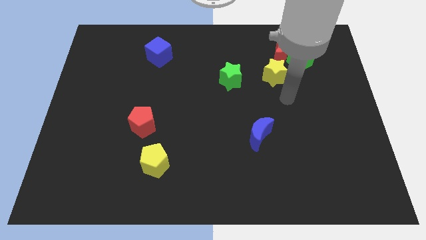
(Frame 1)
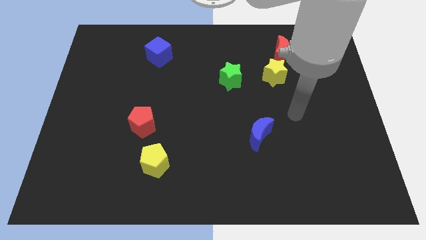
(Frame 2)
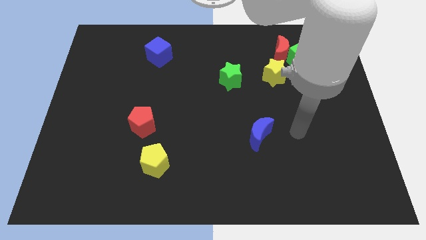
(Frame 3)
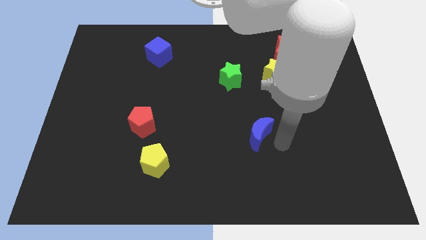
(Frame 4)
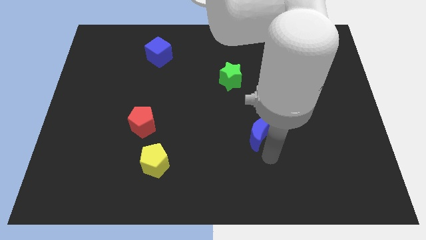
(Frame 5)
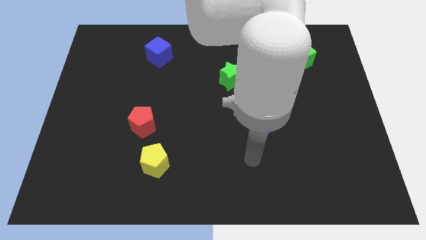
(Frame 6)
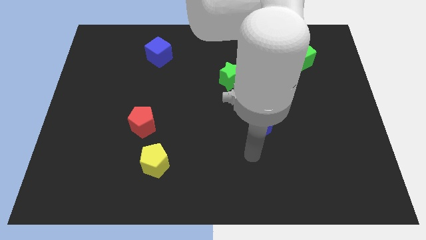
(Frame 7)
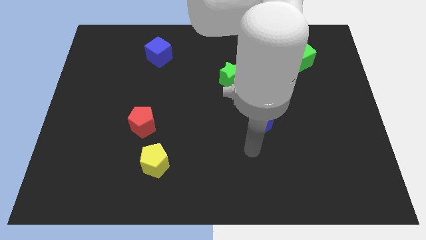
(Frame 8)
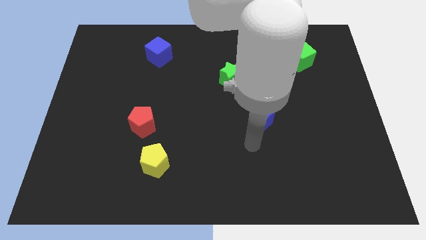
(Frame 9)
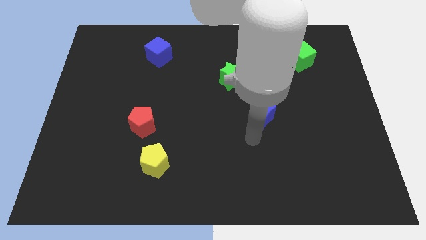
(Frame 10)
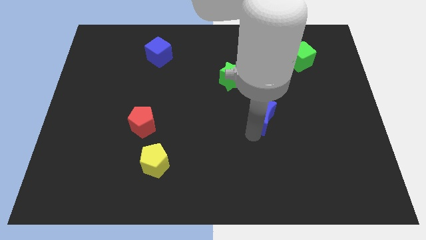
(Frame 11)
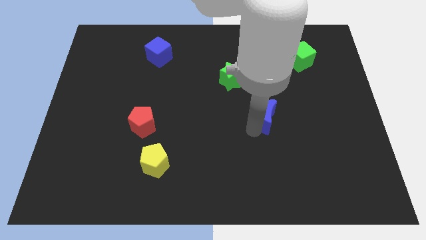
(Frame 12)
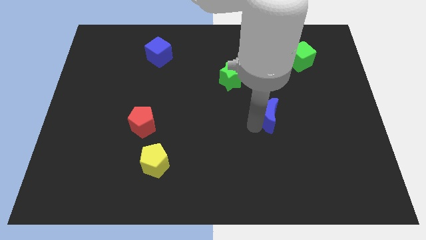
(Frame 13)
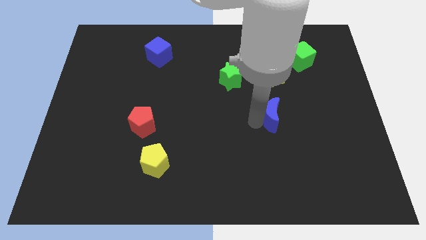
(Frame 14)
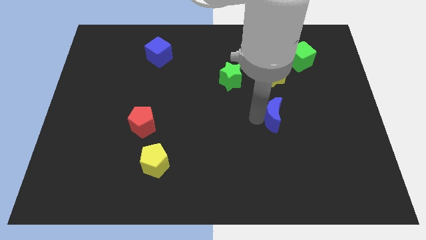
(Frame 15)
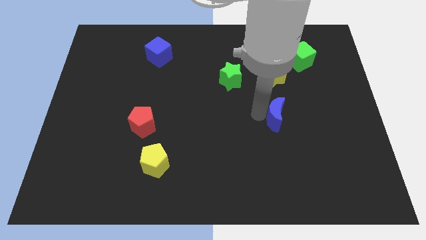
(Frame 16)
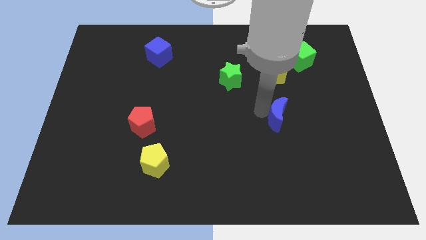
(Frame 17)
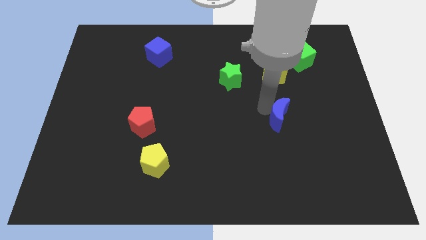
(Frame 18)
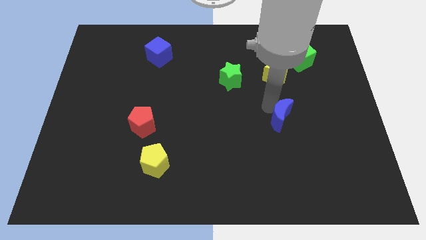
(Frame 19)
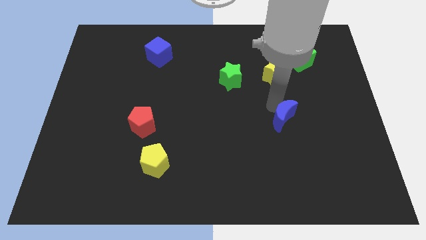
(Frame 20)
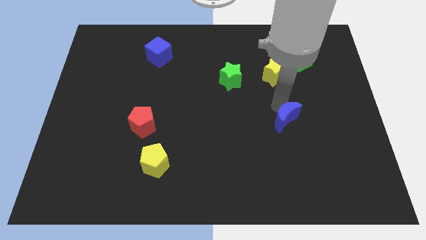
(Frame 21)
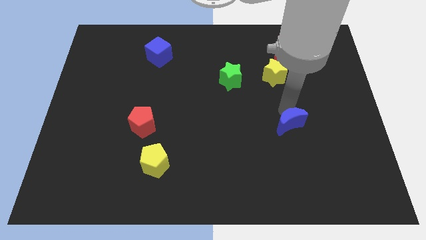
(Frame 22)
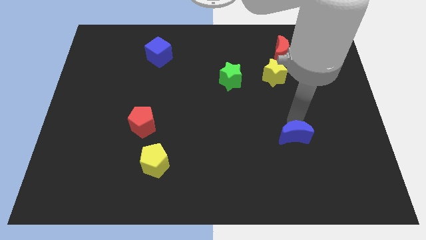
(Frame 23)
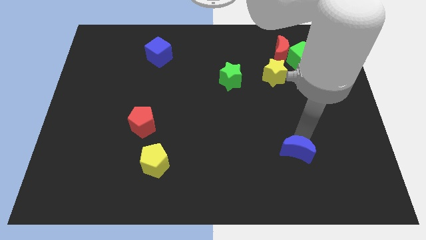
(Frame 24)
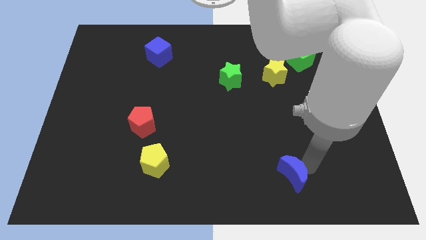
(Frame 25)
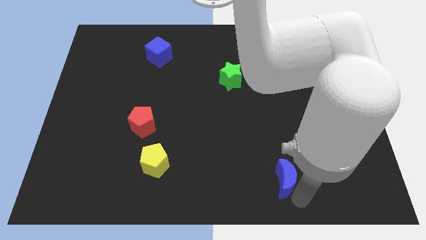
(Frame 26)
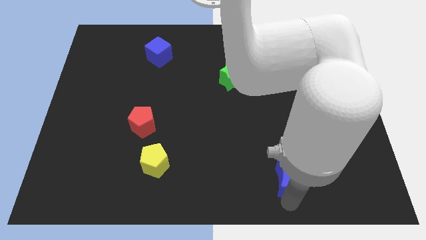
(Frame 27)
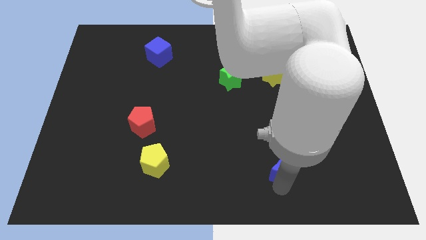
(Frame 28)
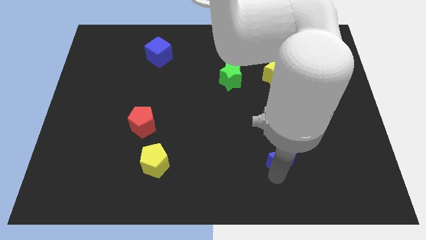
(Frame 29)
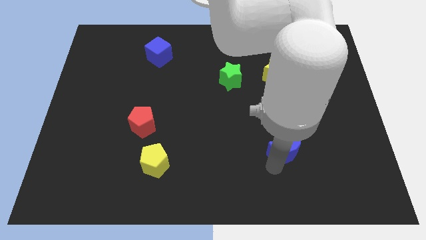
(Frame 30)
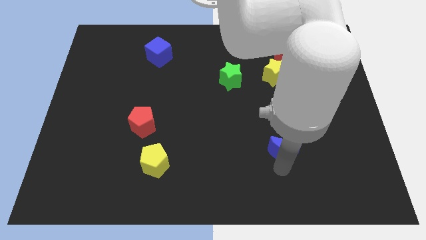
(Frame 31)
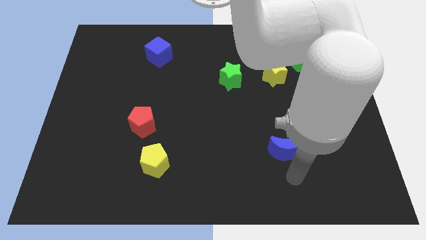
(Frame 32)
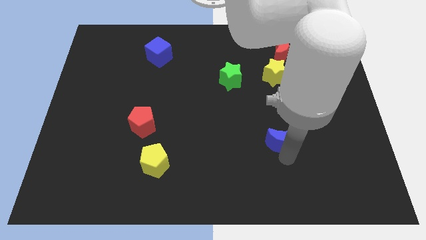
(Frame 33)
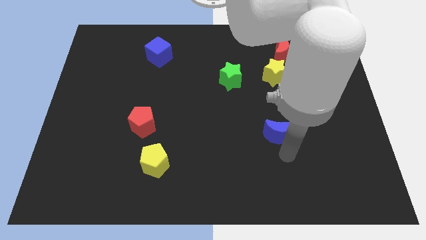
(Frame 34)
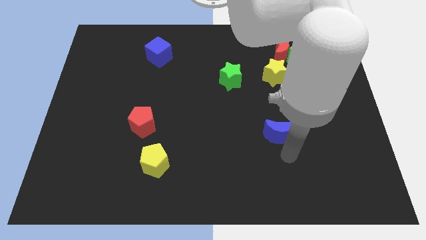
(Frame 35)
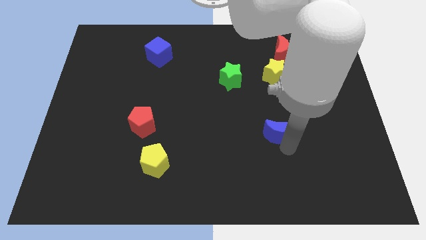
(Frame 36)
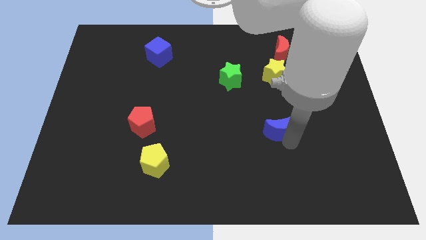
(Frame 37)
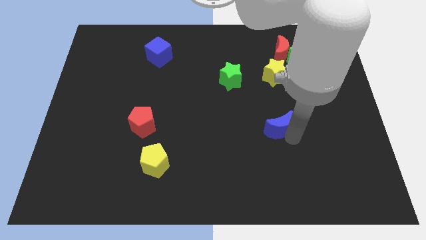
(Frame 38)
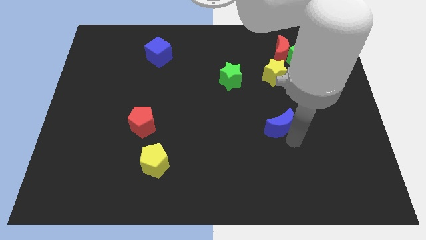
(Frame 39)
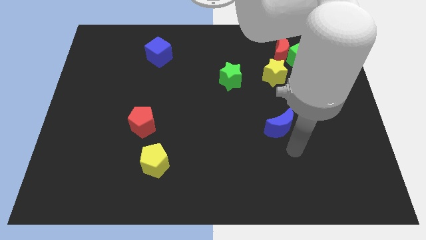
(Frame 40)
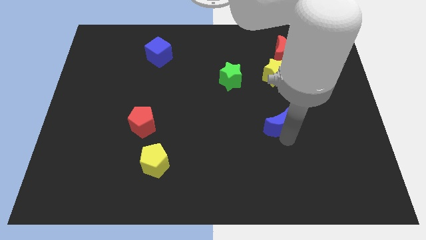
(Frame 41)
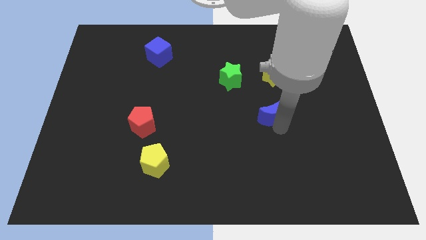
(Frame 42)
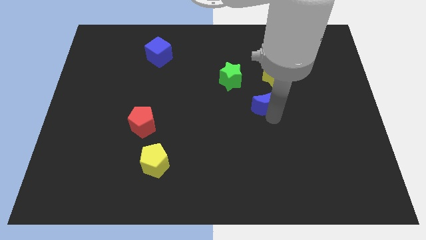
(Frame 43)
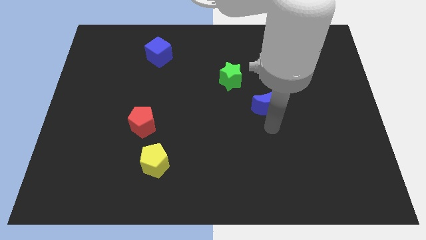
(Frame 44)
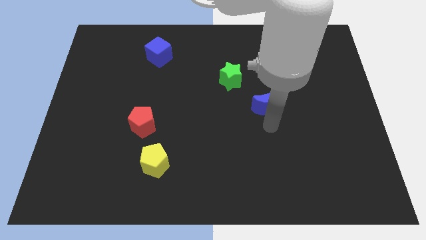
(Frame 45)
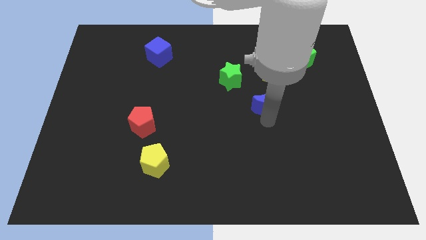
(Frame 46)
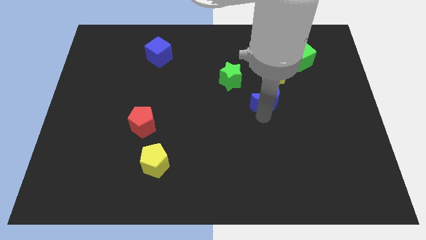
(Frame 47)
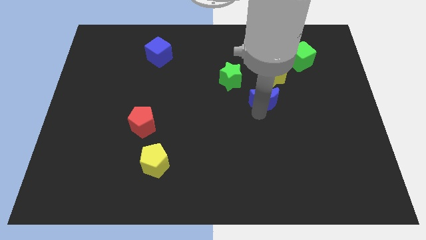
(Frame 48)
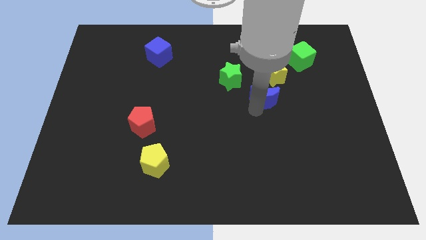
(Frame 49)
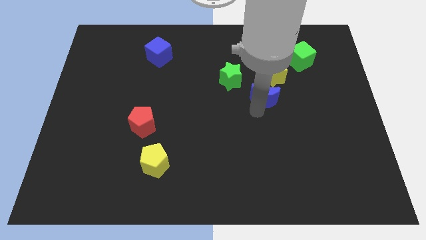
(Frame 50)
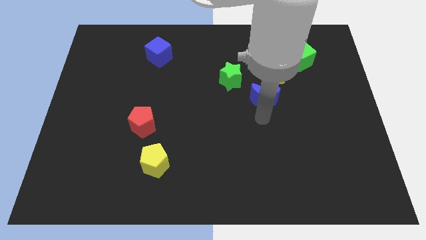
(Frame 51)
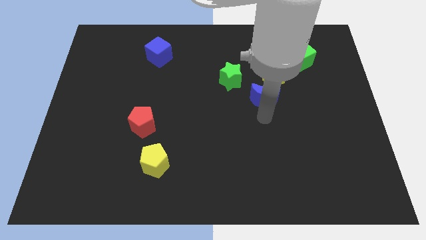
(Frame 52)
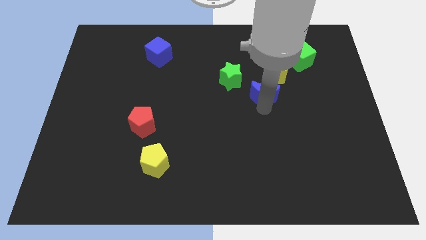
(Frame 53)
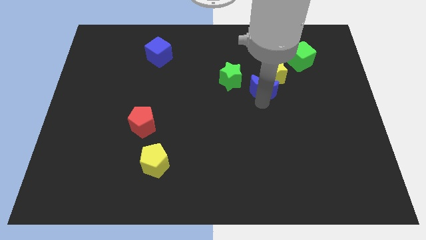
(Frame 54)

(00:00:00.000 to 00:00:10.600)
slide the blue moon towards the yellow star

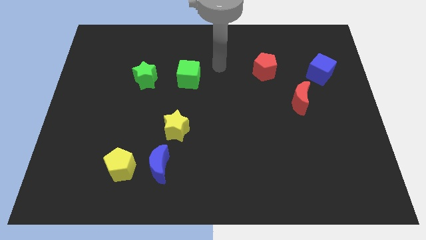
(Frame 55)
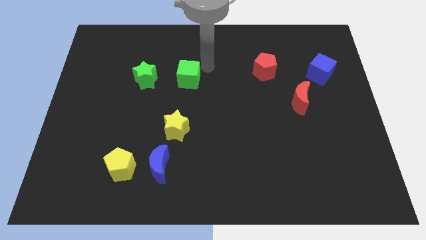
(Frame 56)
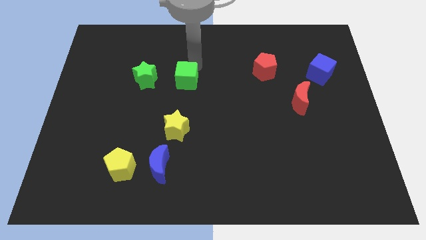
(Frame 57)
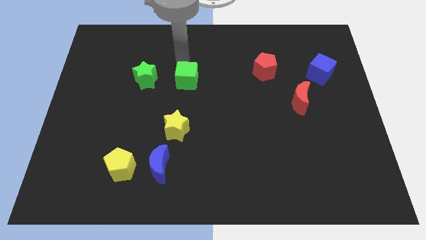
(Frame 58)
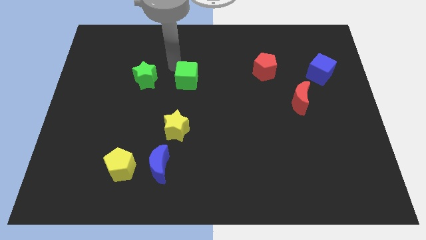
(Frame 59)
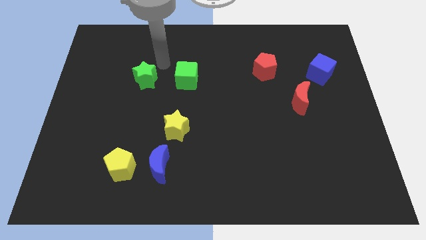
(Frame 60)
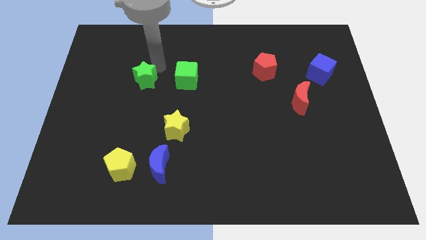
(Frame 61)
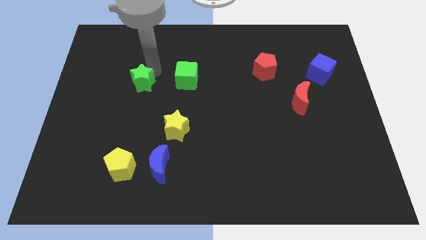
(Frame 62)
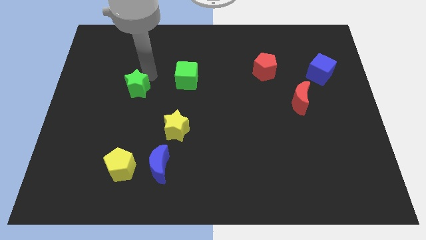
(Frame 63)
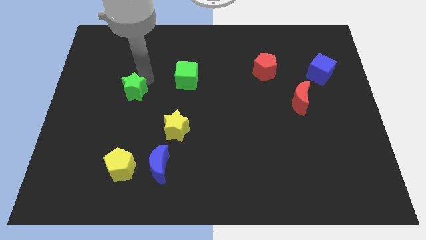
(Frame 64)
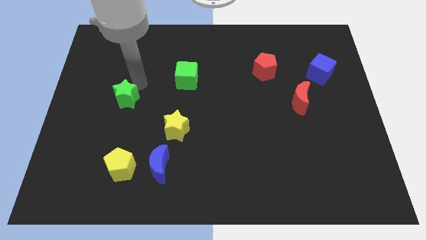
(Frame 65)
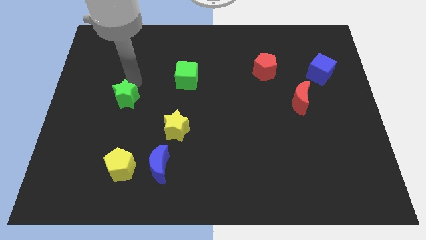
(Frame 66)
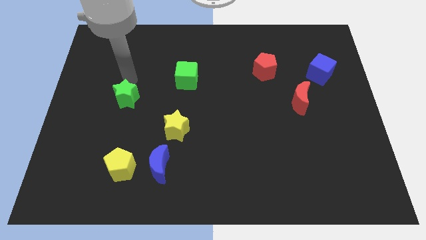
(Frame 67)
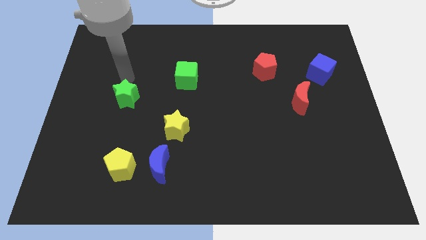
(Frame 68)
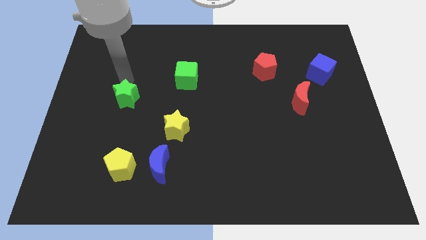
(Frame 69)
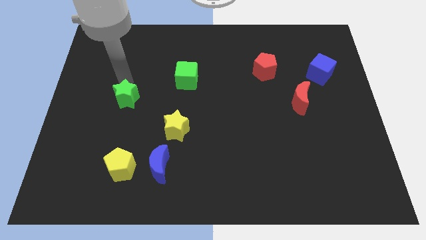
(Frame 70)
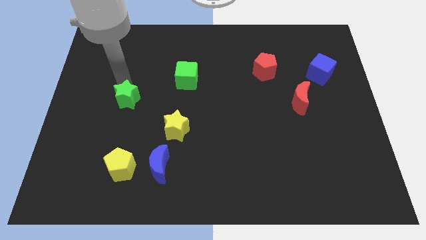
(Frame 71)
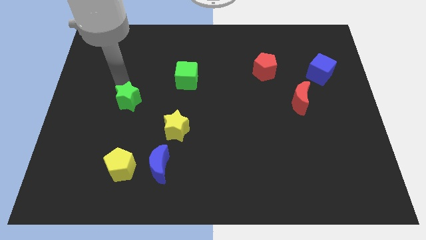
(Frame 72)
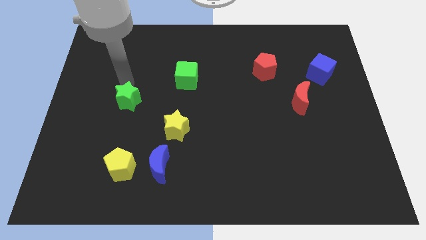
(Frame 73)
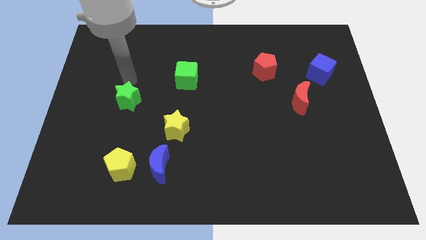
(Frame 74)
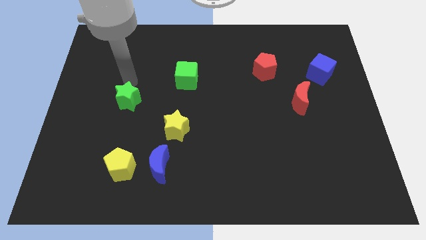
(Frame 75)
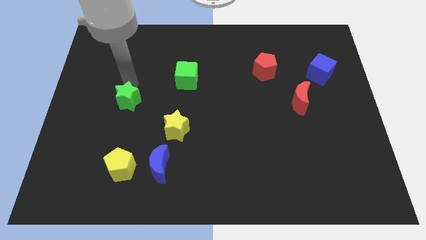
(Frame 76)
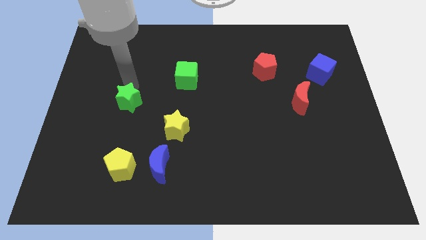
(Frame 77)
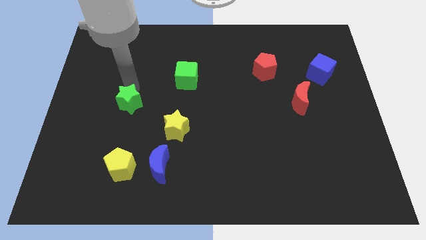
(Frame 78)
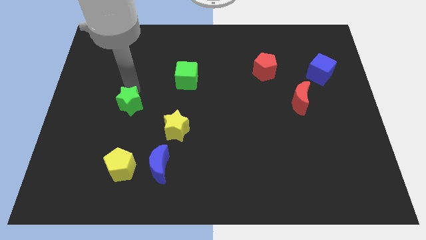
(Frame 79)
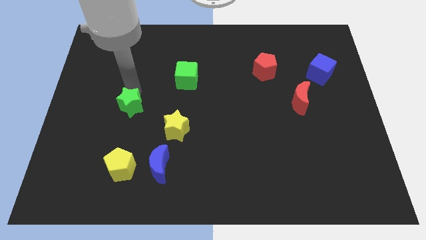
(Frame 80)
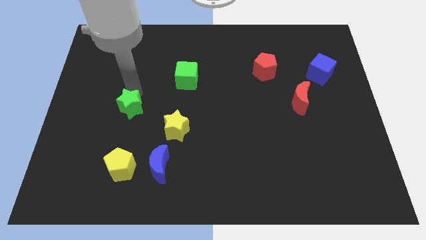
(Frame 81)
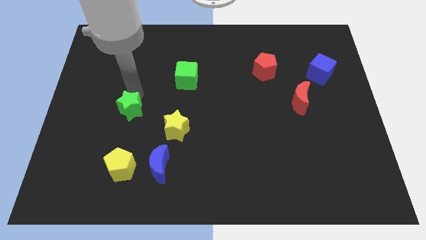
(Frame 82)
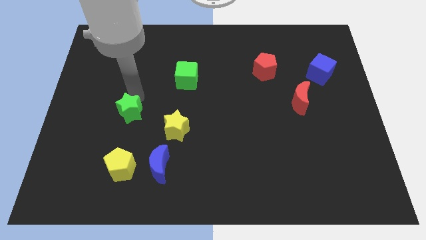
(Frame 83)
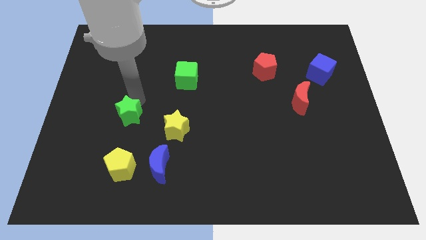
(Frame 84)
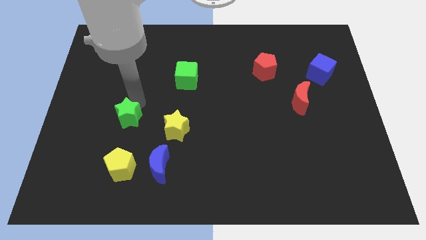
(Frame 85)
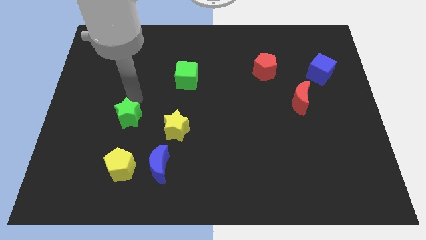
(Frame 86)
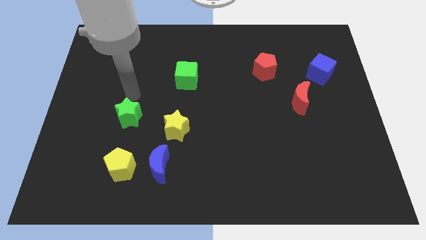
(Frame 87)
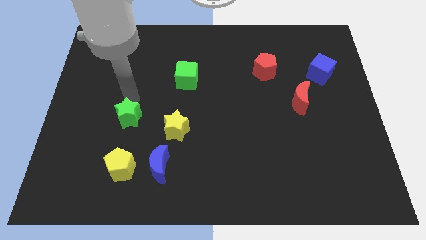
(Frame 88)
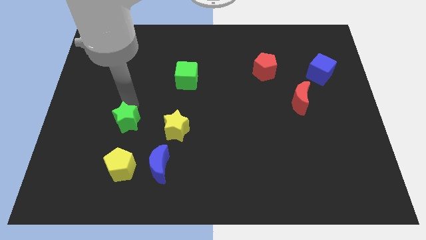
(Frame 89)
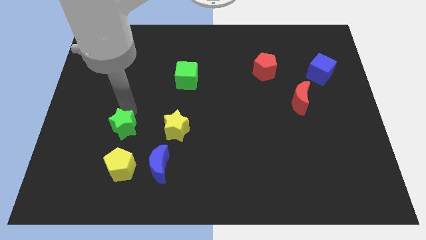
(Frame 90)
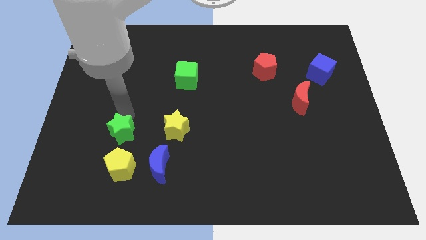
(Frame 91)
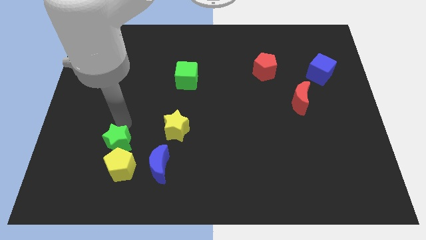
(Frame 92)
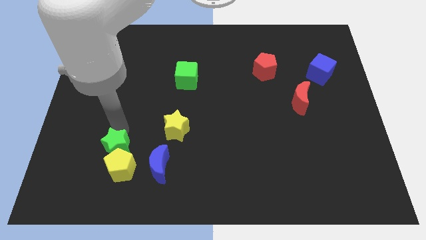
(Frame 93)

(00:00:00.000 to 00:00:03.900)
move the green star next to the yellow pentagon
